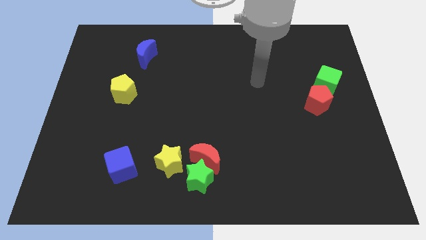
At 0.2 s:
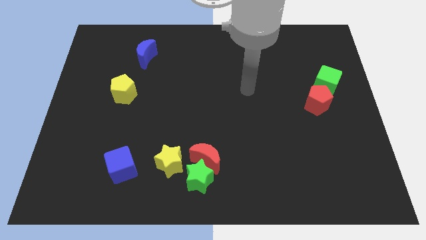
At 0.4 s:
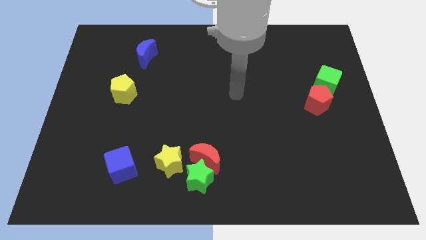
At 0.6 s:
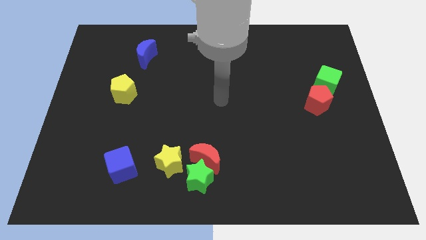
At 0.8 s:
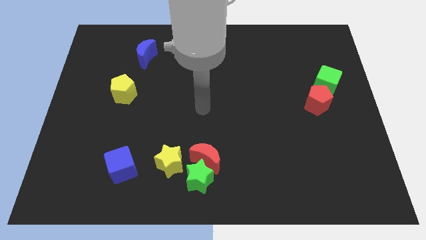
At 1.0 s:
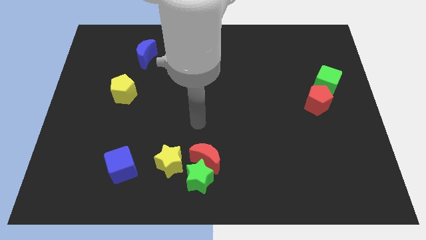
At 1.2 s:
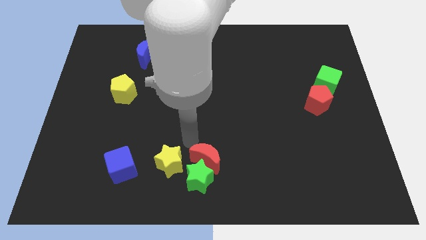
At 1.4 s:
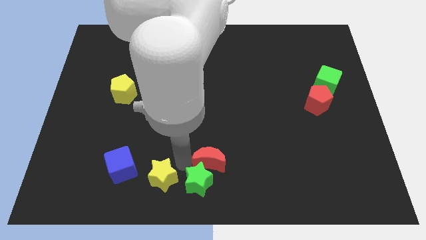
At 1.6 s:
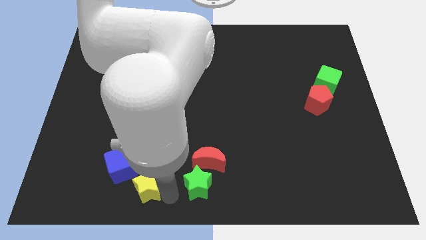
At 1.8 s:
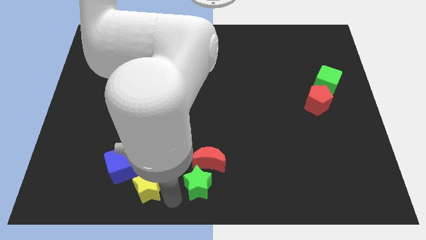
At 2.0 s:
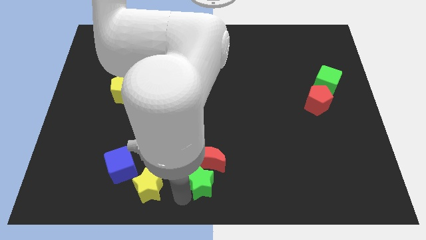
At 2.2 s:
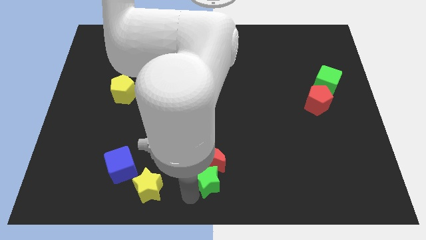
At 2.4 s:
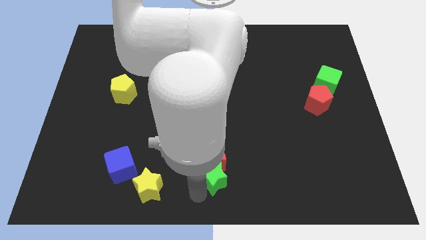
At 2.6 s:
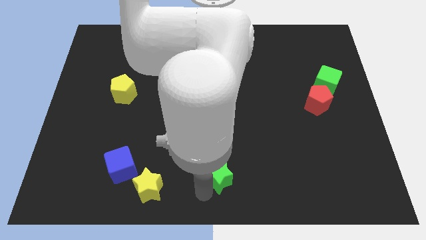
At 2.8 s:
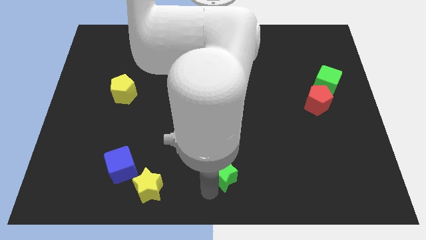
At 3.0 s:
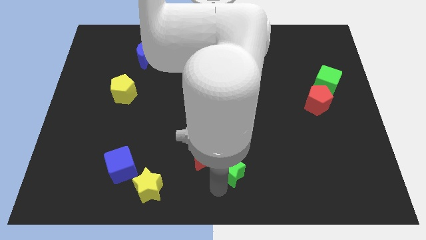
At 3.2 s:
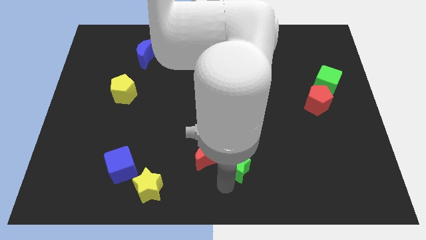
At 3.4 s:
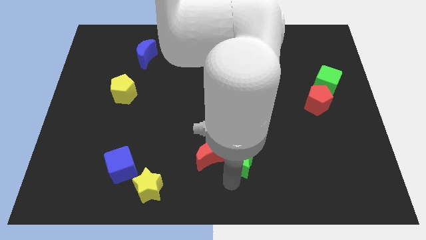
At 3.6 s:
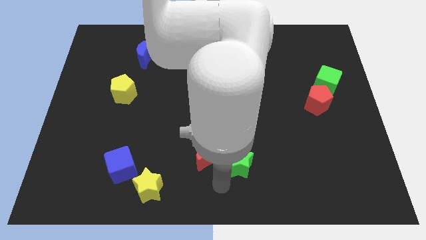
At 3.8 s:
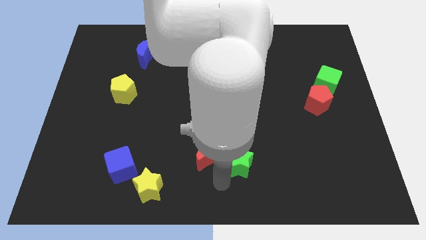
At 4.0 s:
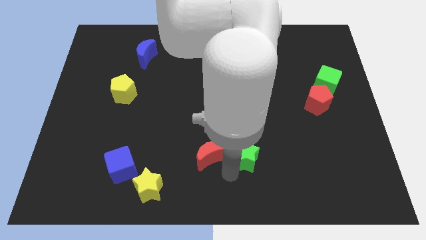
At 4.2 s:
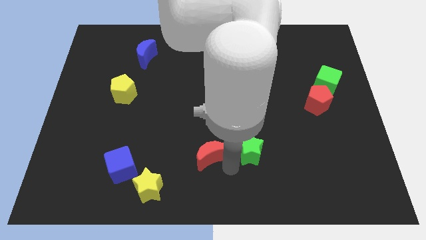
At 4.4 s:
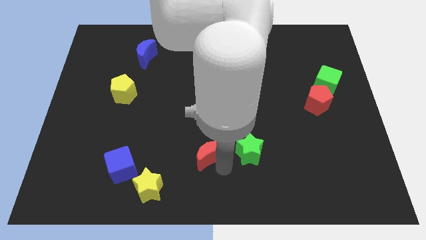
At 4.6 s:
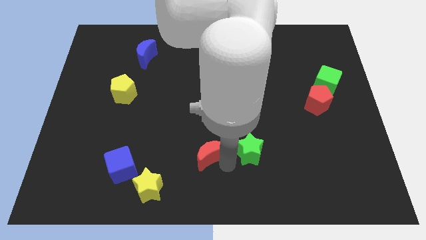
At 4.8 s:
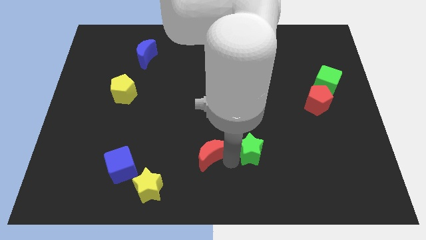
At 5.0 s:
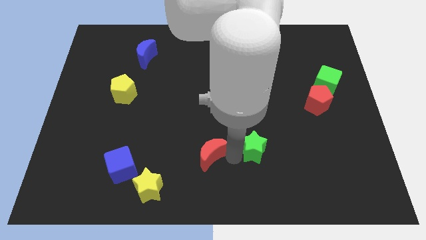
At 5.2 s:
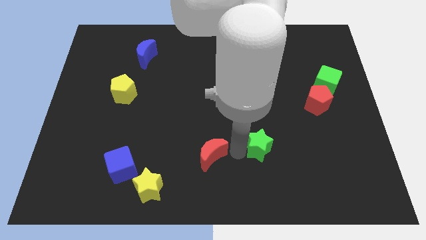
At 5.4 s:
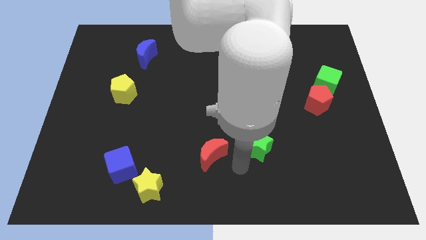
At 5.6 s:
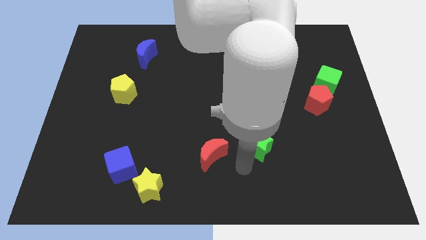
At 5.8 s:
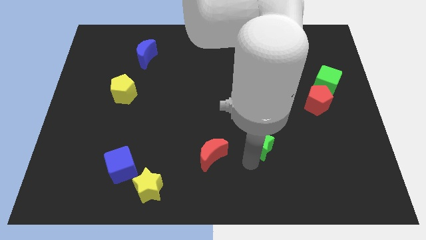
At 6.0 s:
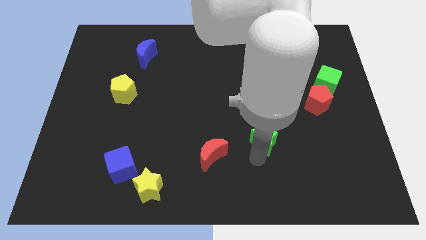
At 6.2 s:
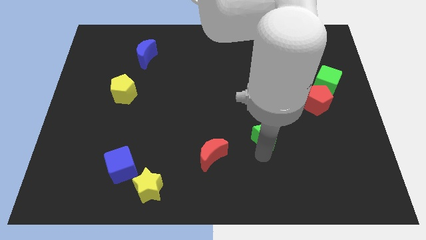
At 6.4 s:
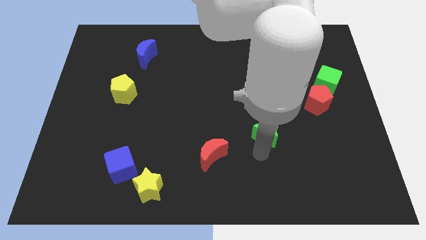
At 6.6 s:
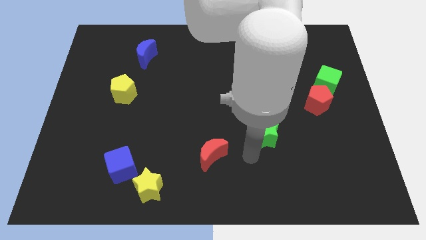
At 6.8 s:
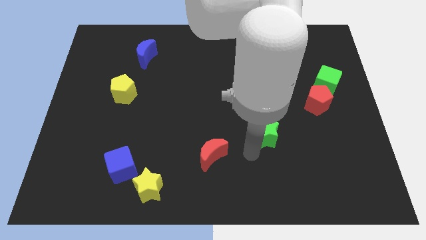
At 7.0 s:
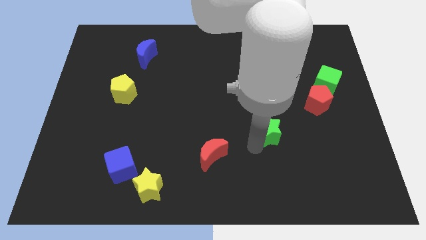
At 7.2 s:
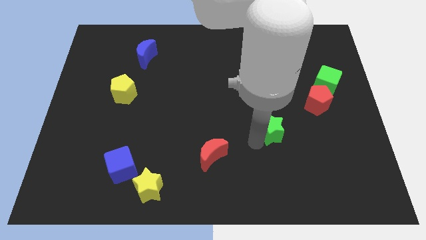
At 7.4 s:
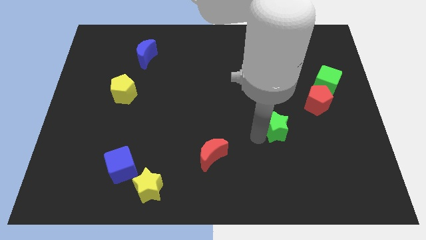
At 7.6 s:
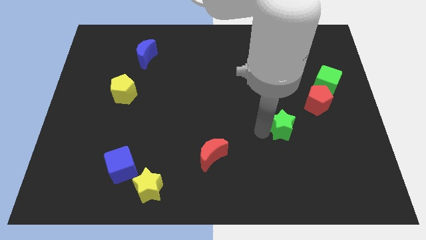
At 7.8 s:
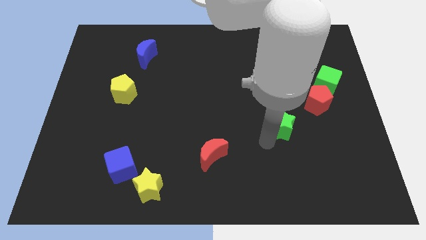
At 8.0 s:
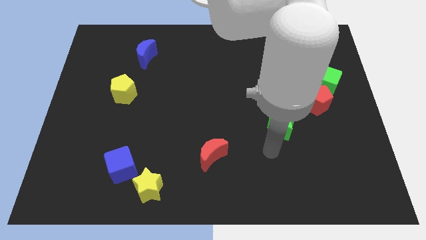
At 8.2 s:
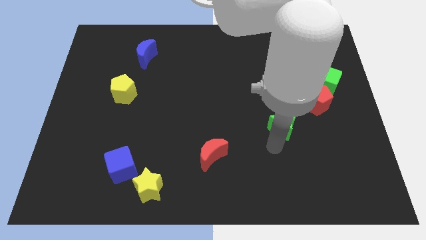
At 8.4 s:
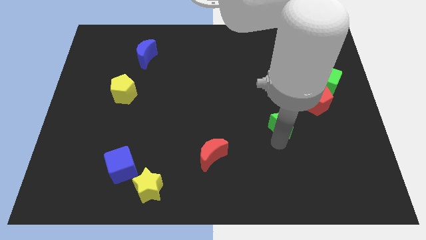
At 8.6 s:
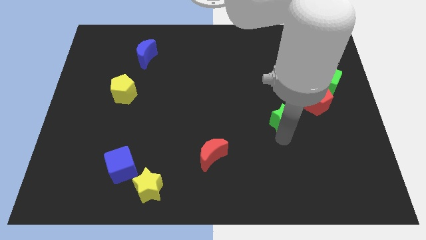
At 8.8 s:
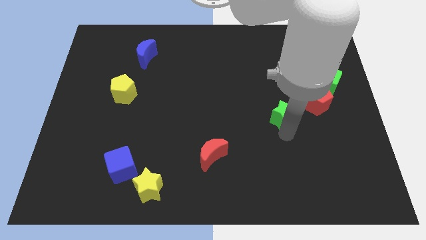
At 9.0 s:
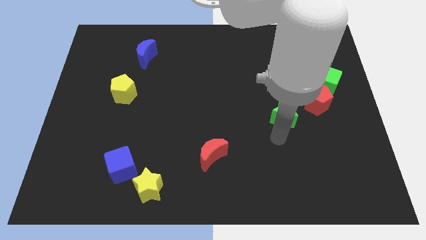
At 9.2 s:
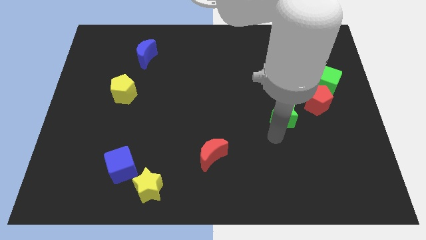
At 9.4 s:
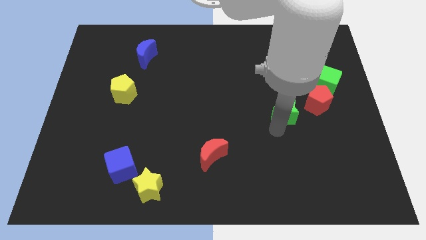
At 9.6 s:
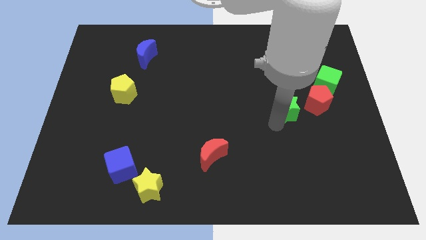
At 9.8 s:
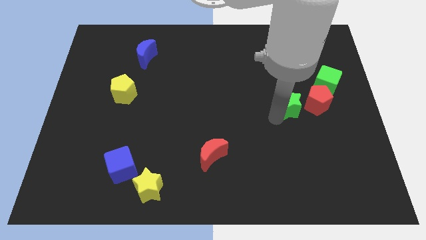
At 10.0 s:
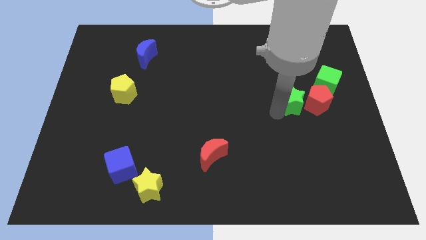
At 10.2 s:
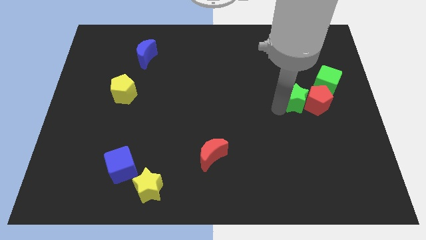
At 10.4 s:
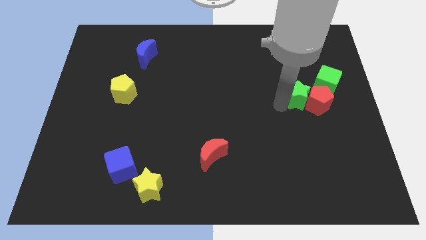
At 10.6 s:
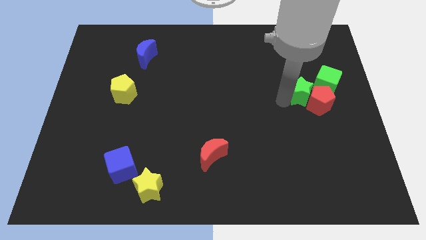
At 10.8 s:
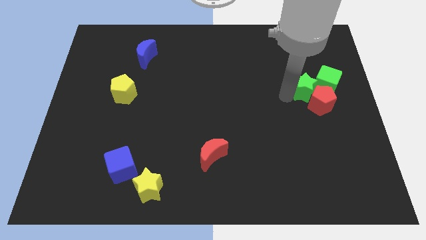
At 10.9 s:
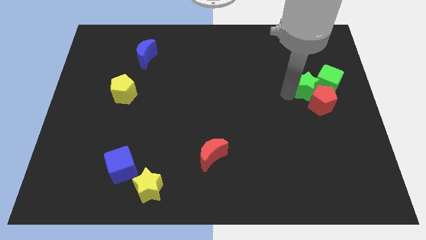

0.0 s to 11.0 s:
move the green star next to the green cube

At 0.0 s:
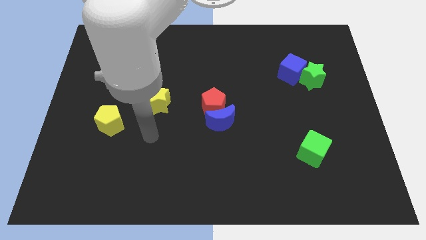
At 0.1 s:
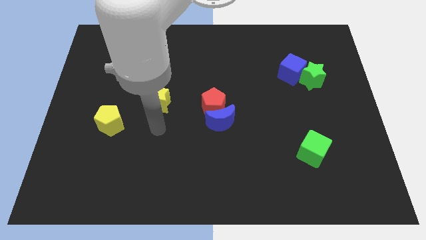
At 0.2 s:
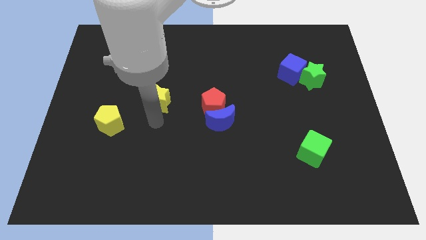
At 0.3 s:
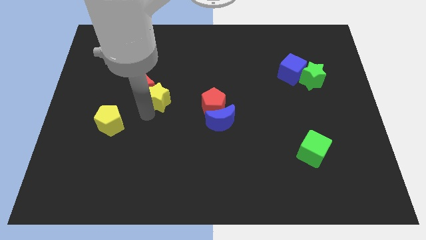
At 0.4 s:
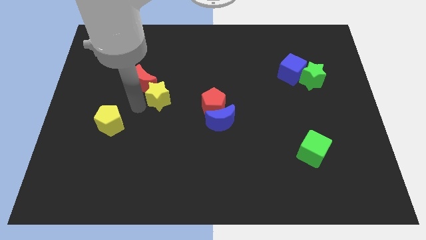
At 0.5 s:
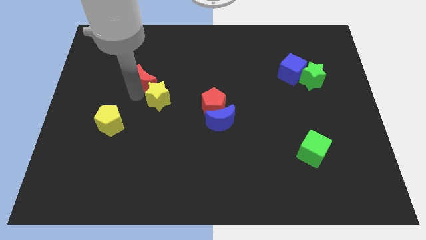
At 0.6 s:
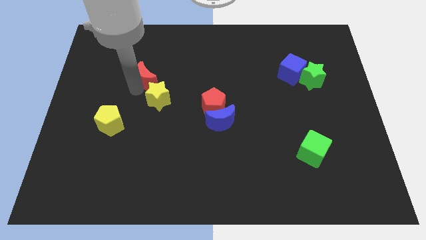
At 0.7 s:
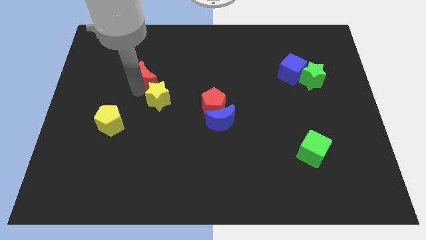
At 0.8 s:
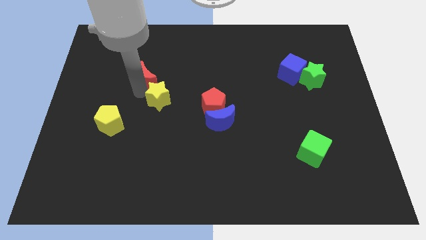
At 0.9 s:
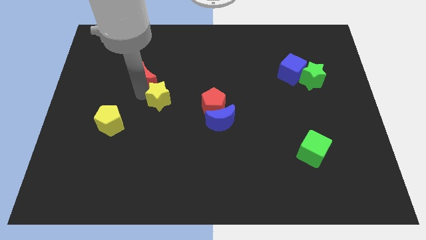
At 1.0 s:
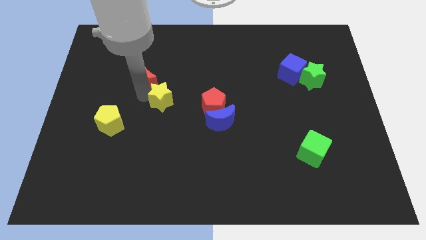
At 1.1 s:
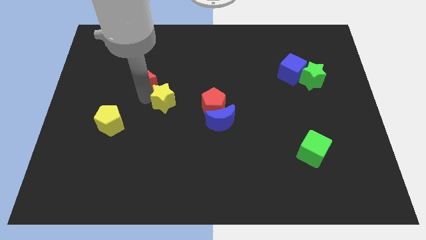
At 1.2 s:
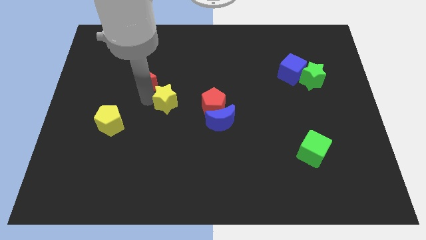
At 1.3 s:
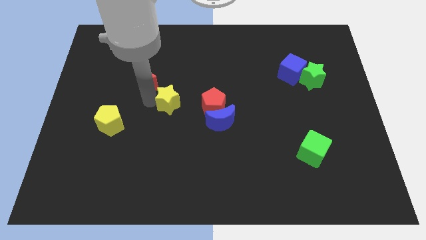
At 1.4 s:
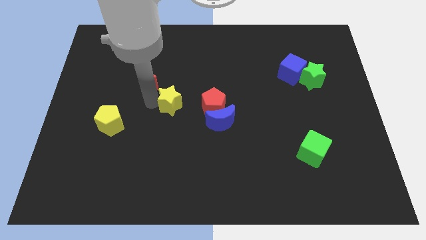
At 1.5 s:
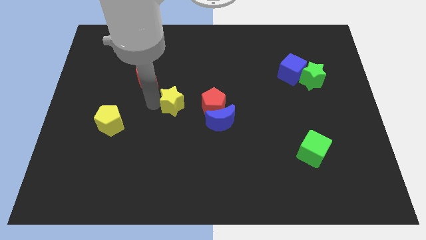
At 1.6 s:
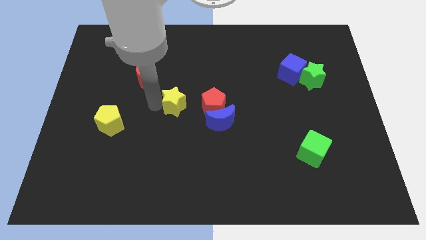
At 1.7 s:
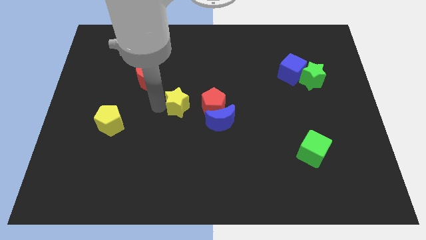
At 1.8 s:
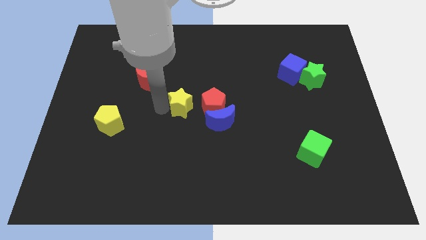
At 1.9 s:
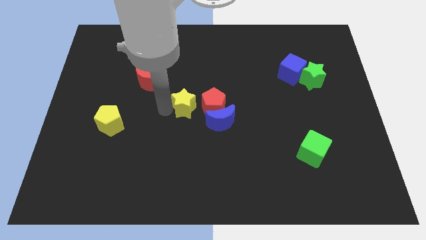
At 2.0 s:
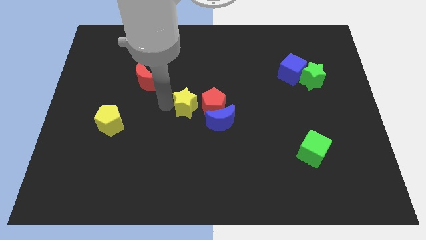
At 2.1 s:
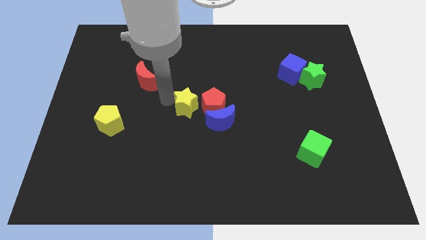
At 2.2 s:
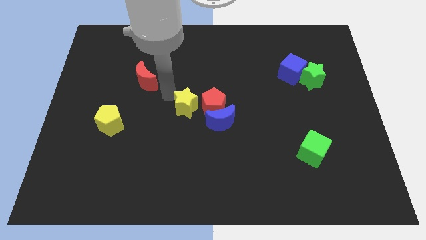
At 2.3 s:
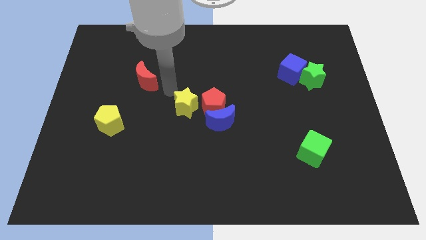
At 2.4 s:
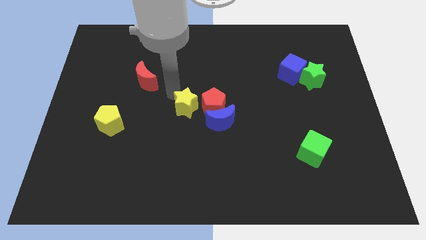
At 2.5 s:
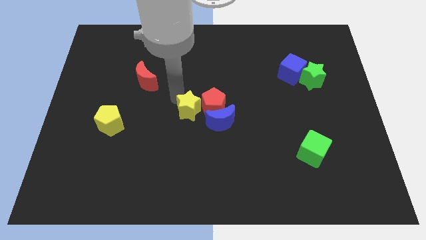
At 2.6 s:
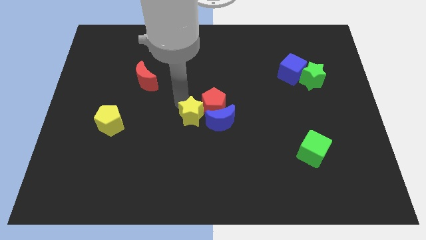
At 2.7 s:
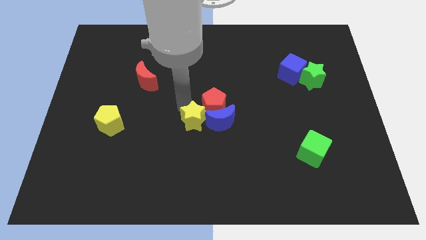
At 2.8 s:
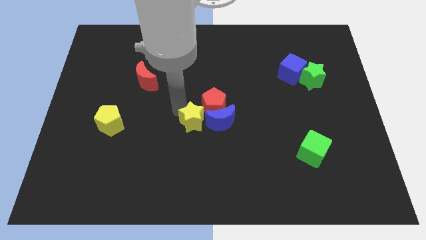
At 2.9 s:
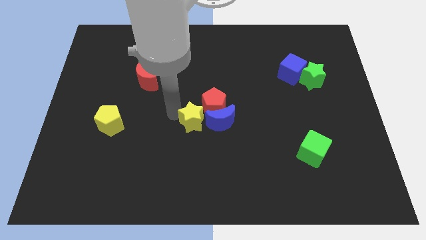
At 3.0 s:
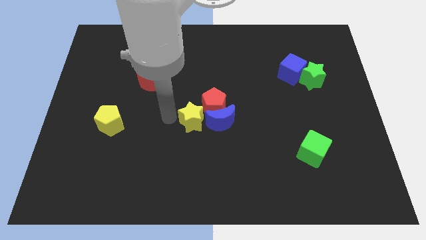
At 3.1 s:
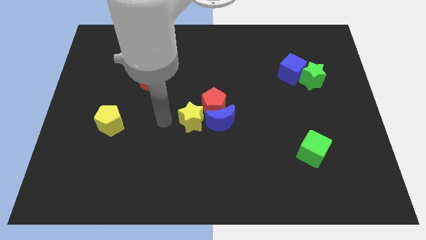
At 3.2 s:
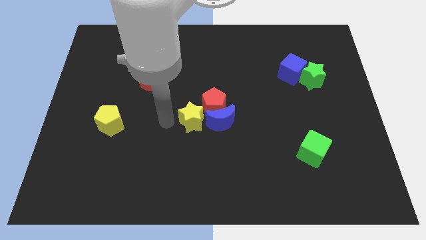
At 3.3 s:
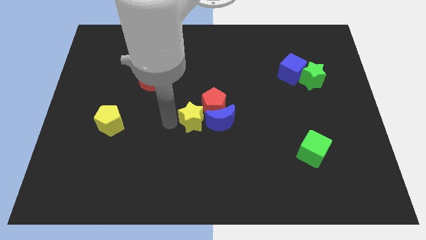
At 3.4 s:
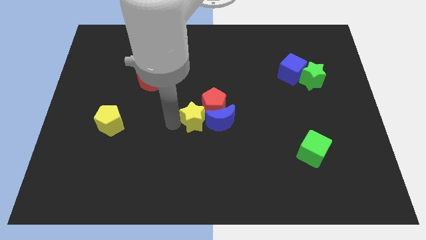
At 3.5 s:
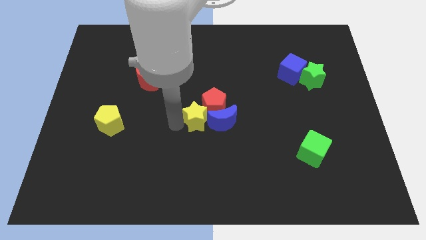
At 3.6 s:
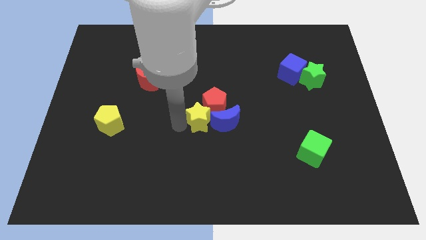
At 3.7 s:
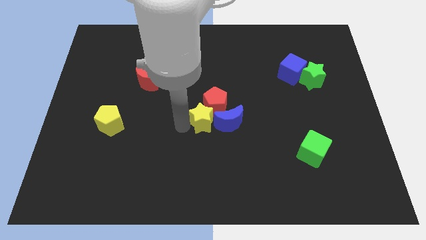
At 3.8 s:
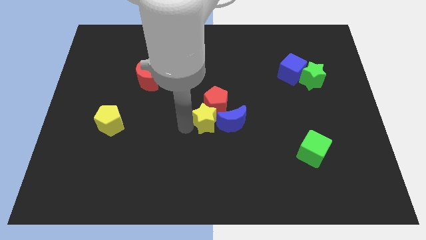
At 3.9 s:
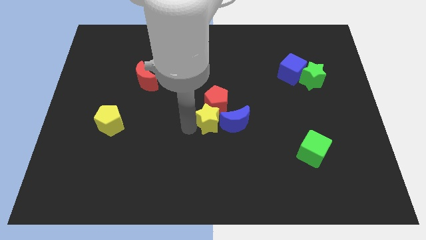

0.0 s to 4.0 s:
push the yellow star to the blue moon
